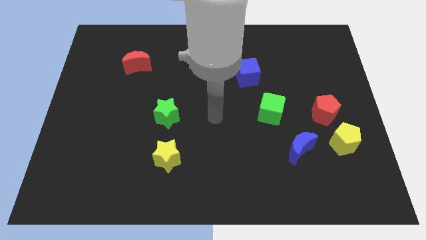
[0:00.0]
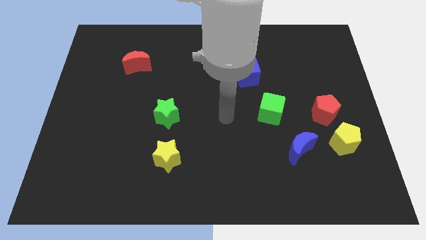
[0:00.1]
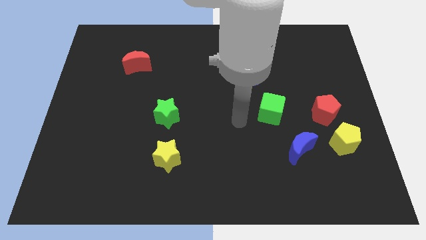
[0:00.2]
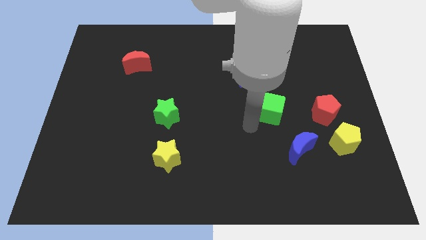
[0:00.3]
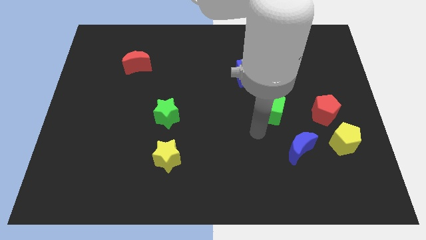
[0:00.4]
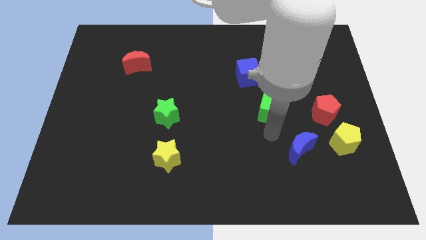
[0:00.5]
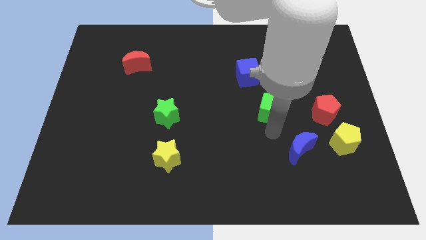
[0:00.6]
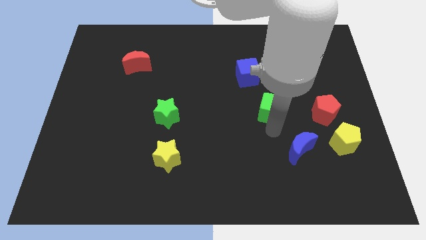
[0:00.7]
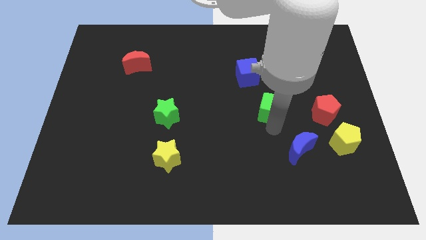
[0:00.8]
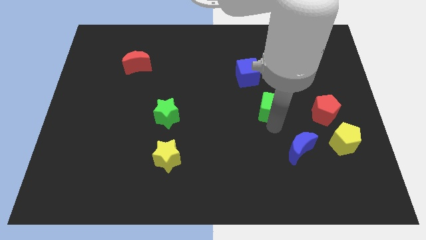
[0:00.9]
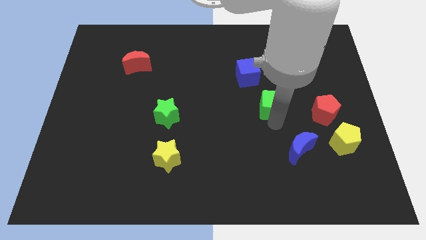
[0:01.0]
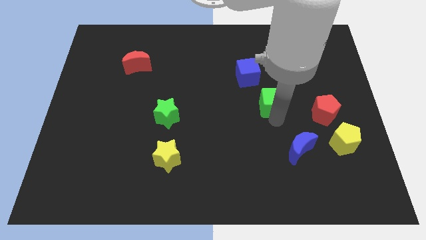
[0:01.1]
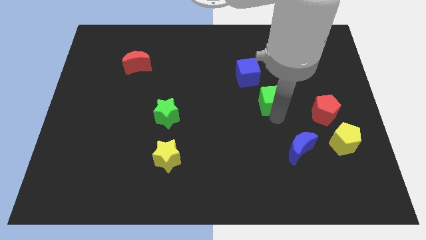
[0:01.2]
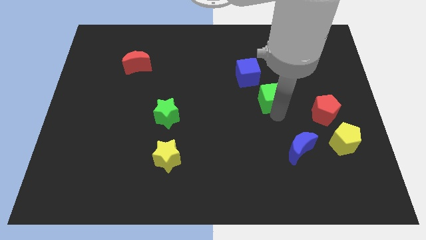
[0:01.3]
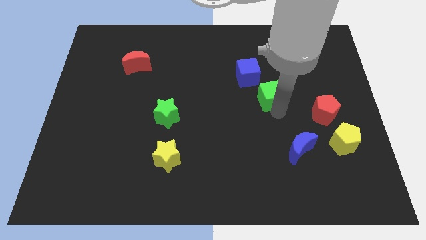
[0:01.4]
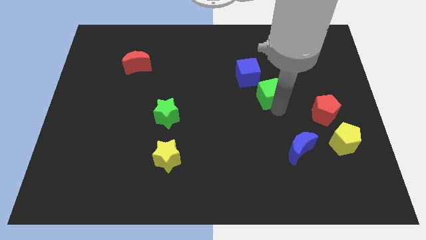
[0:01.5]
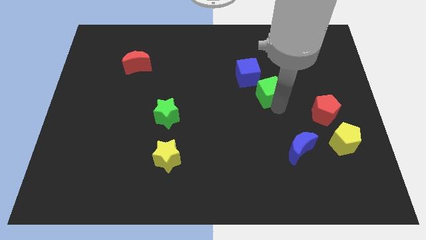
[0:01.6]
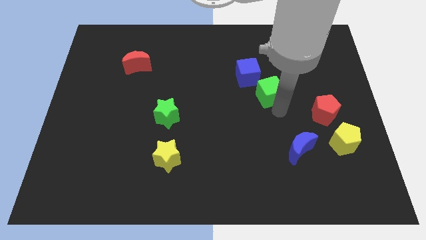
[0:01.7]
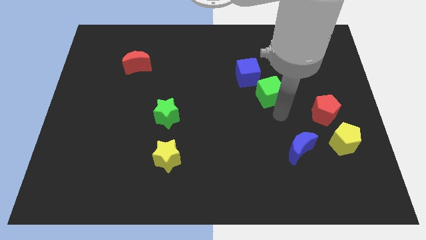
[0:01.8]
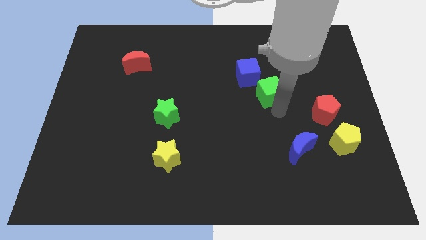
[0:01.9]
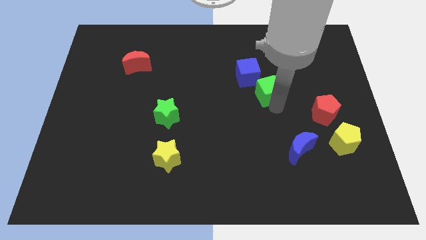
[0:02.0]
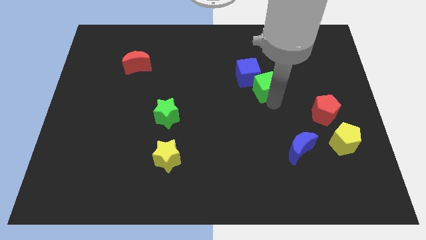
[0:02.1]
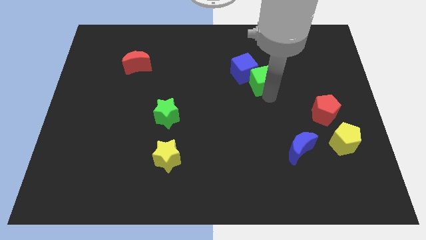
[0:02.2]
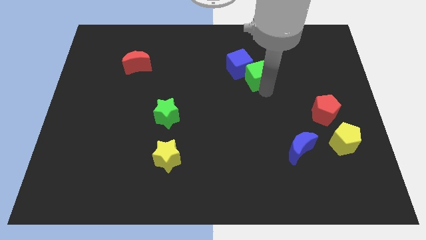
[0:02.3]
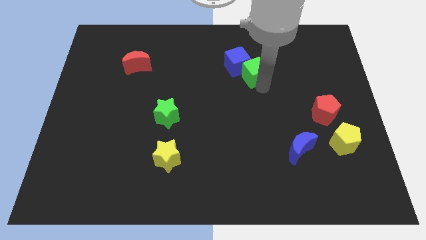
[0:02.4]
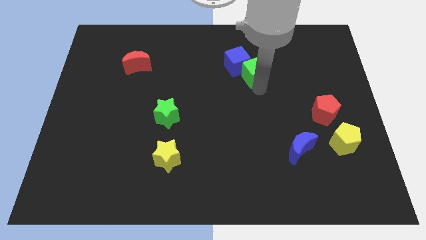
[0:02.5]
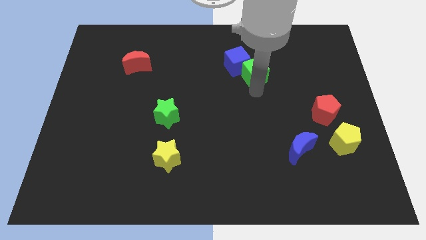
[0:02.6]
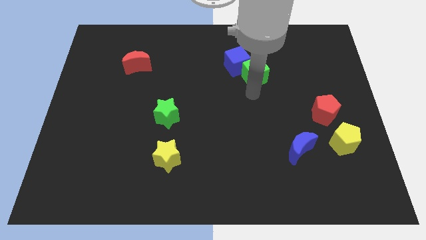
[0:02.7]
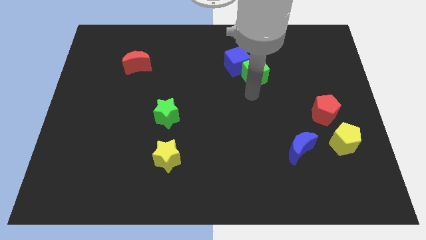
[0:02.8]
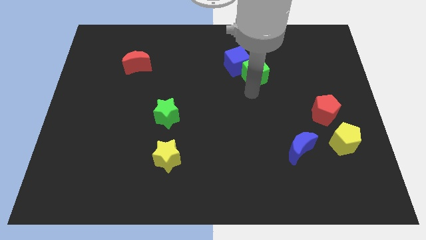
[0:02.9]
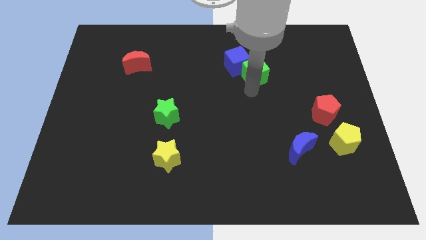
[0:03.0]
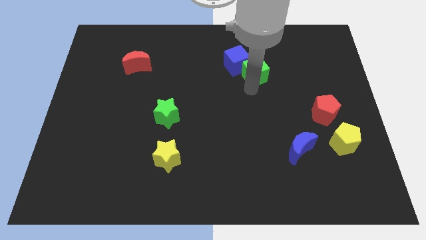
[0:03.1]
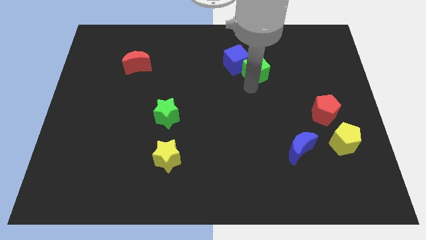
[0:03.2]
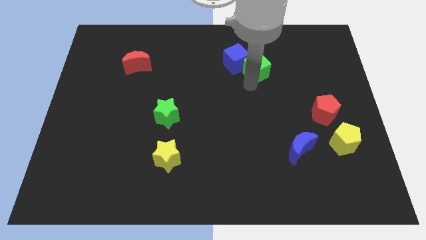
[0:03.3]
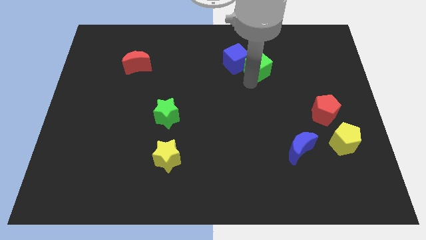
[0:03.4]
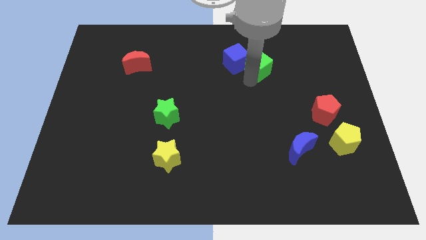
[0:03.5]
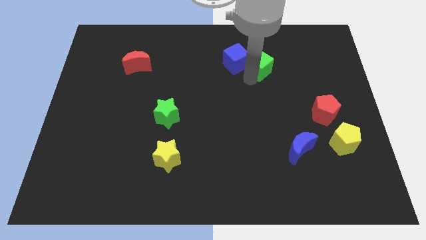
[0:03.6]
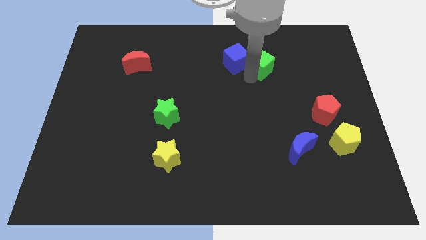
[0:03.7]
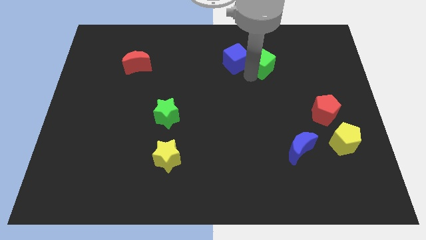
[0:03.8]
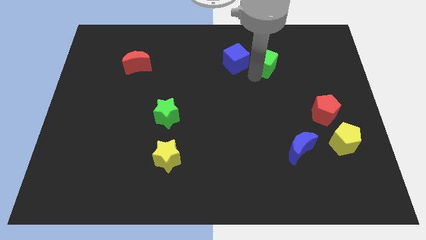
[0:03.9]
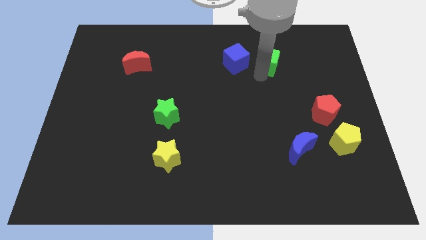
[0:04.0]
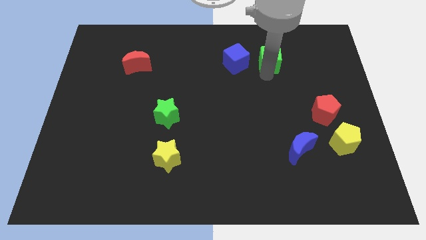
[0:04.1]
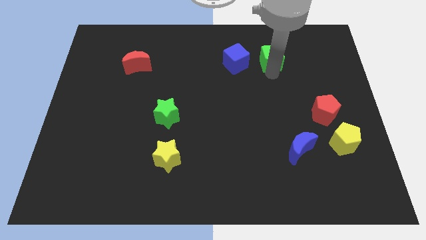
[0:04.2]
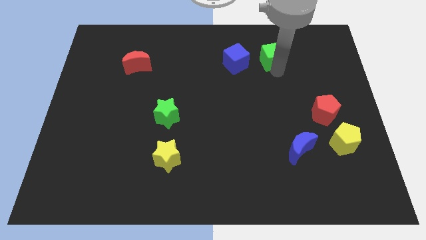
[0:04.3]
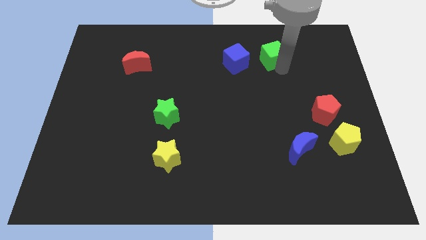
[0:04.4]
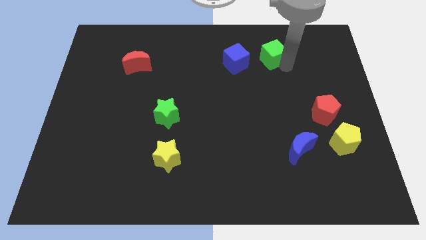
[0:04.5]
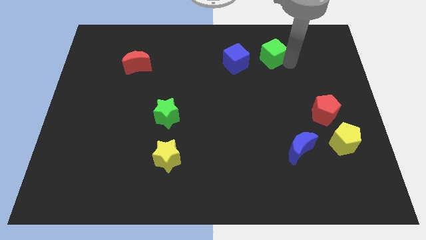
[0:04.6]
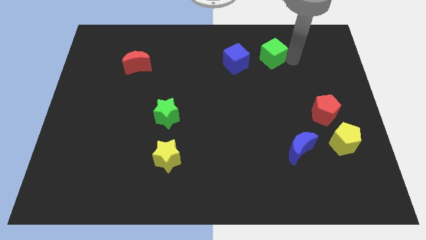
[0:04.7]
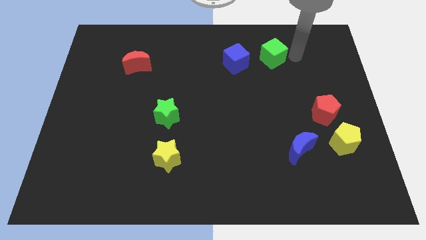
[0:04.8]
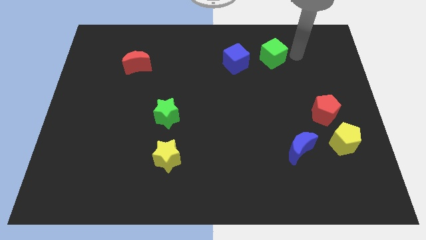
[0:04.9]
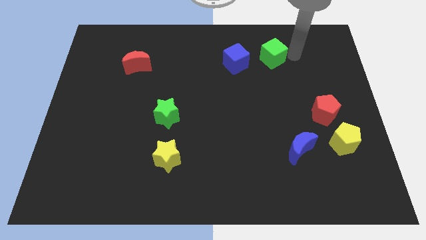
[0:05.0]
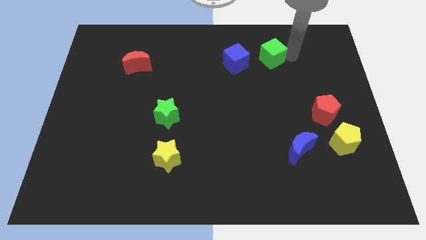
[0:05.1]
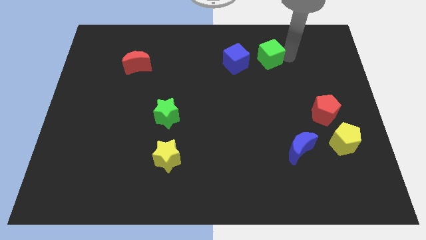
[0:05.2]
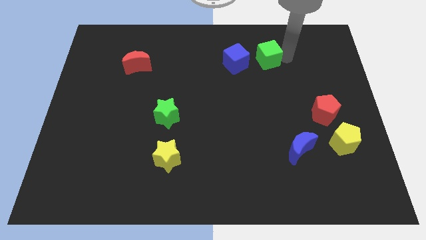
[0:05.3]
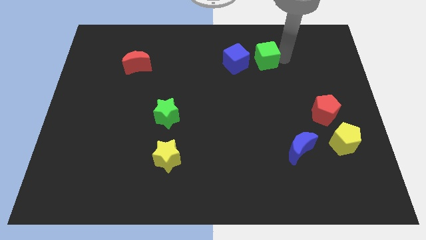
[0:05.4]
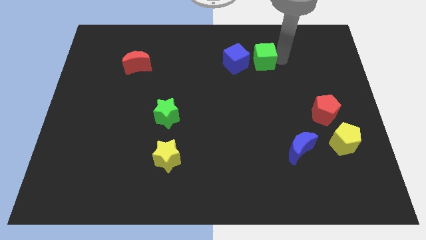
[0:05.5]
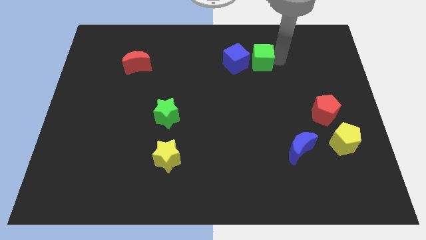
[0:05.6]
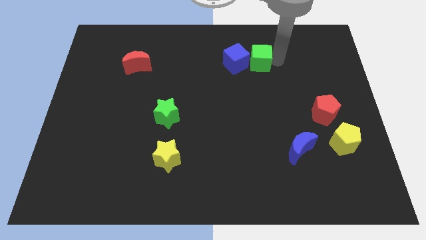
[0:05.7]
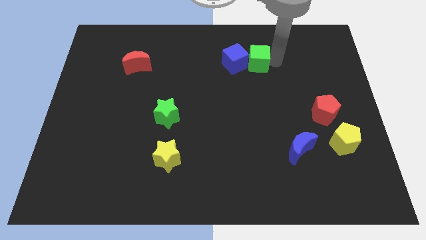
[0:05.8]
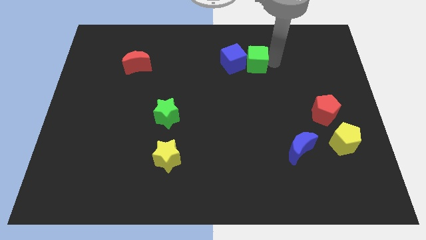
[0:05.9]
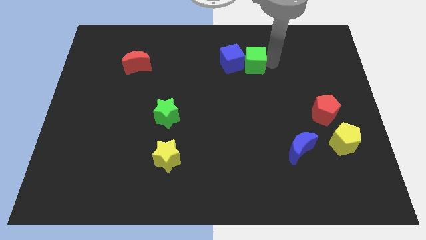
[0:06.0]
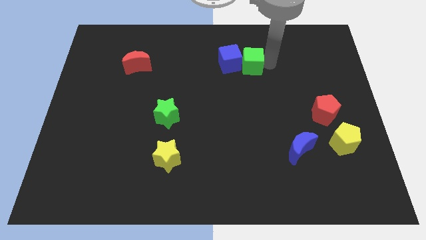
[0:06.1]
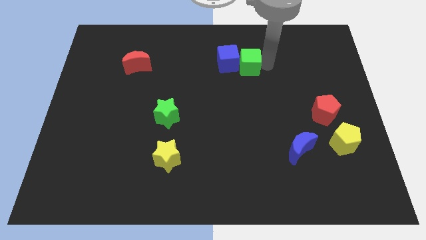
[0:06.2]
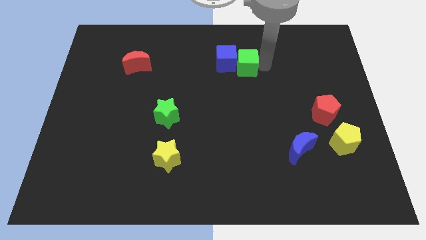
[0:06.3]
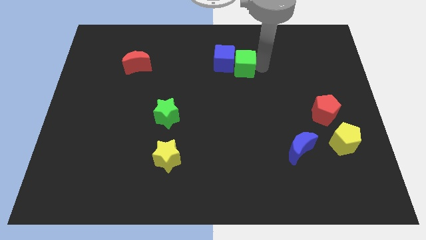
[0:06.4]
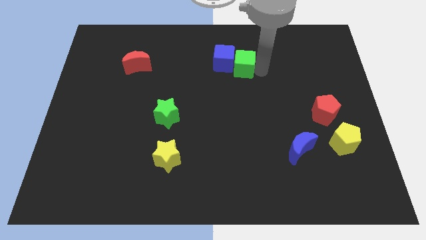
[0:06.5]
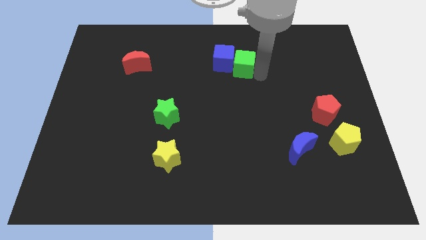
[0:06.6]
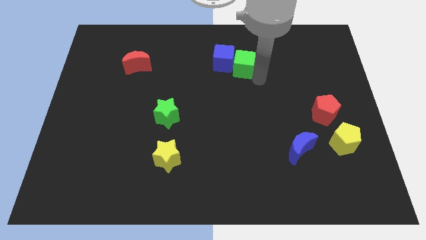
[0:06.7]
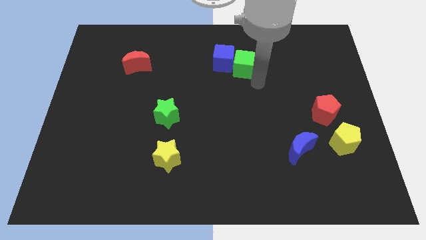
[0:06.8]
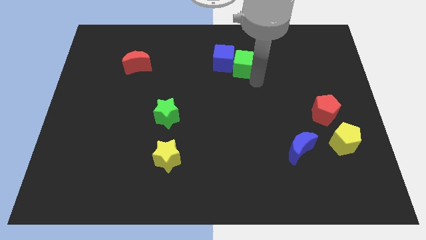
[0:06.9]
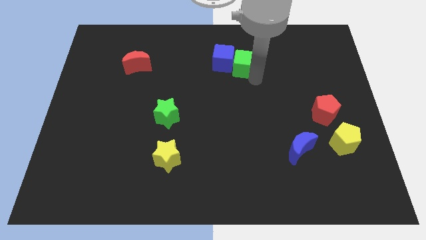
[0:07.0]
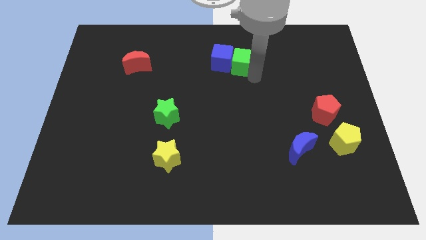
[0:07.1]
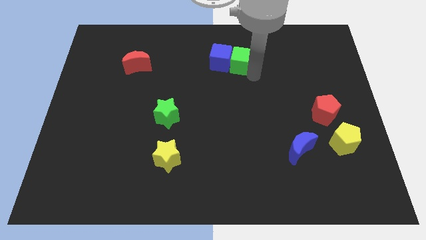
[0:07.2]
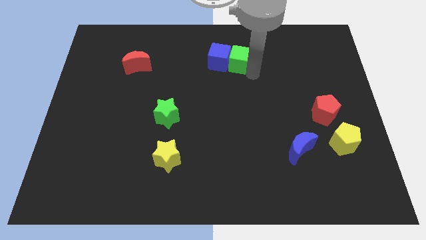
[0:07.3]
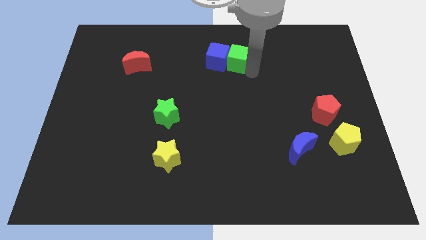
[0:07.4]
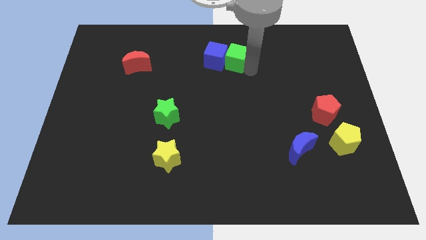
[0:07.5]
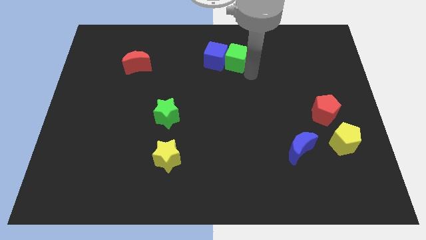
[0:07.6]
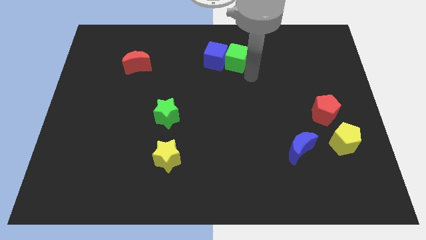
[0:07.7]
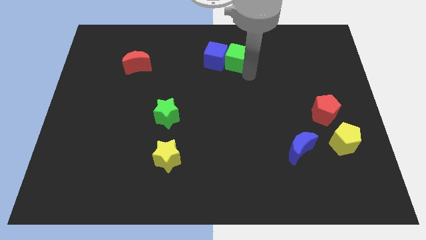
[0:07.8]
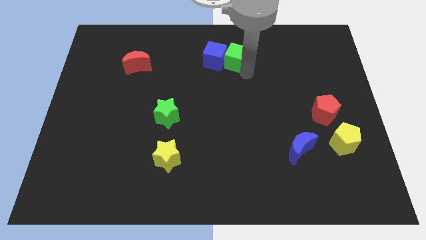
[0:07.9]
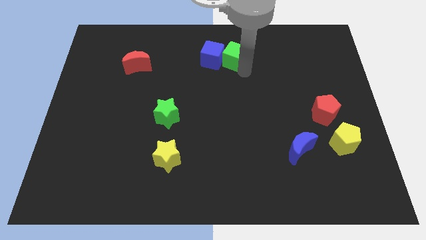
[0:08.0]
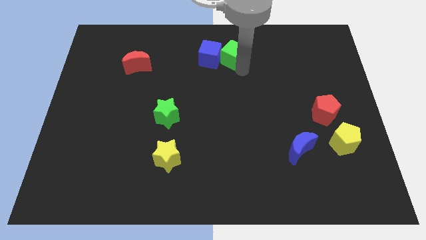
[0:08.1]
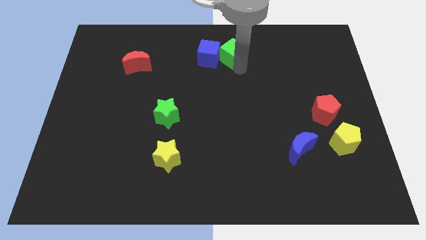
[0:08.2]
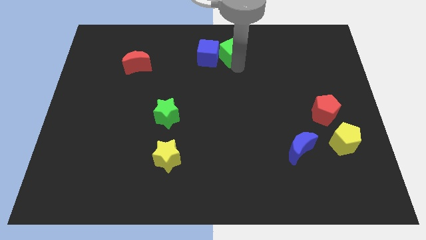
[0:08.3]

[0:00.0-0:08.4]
put the green cube to the towards your base
